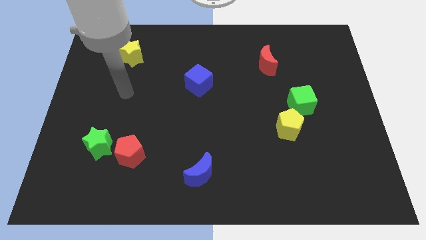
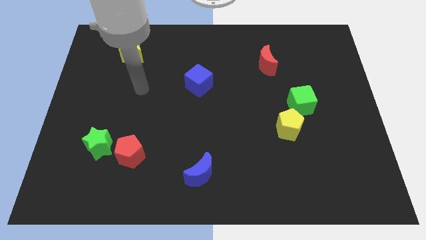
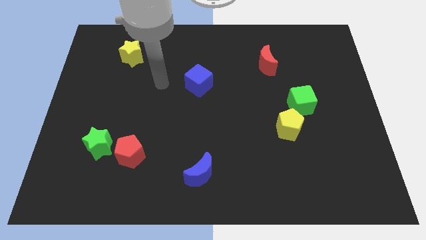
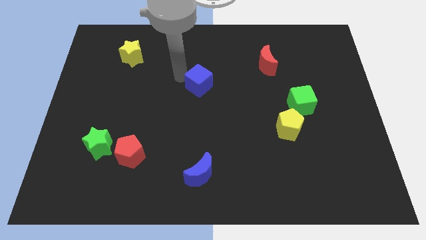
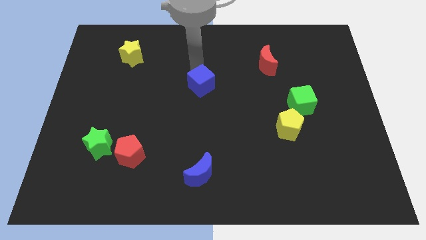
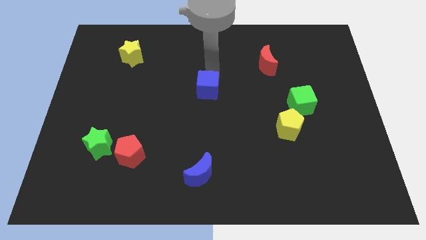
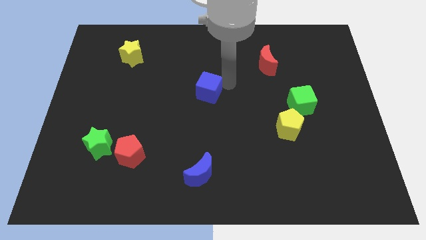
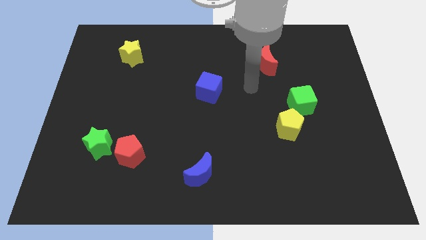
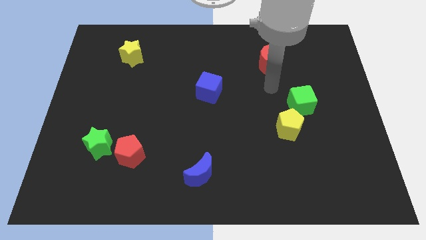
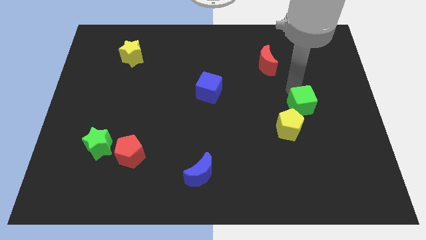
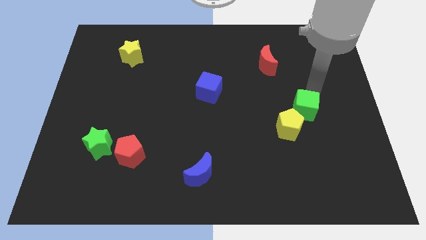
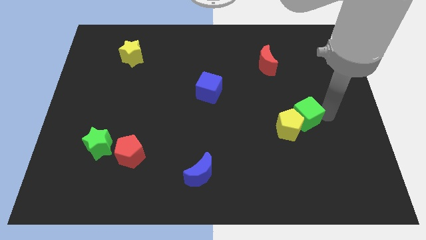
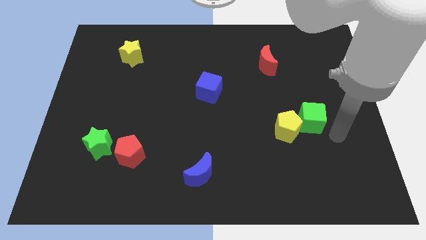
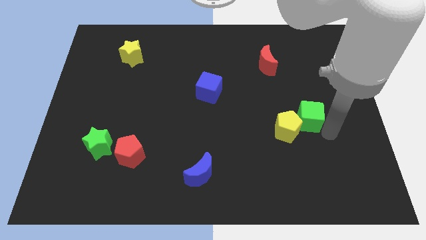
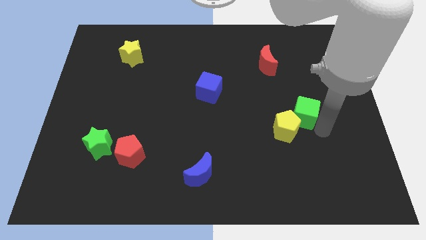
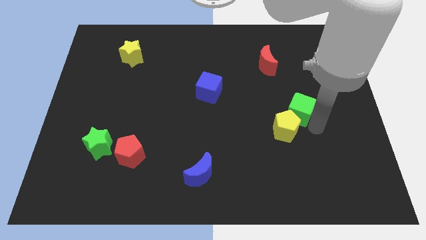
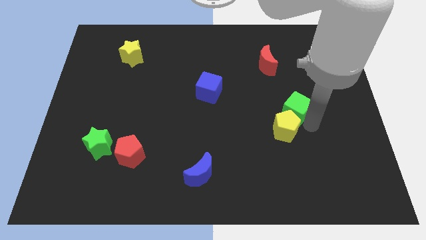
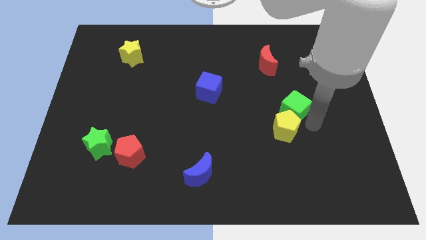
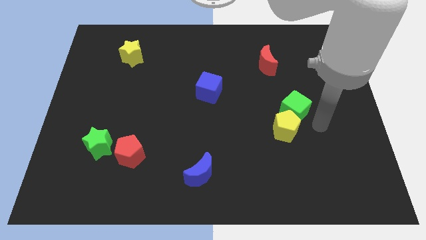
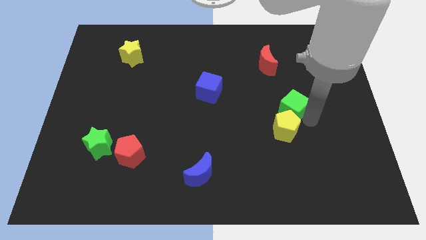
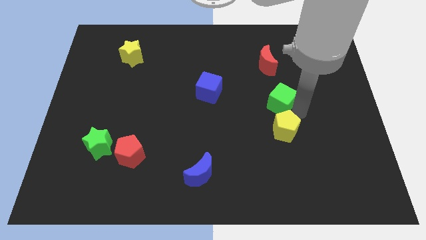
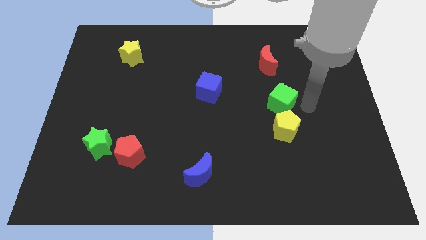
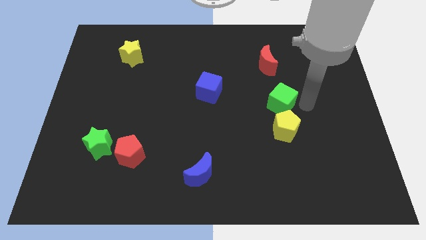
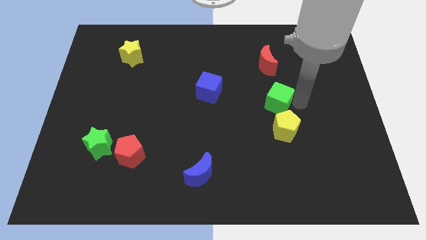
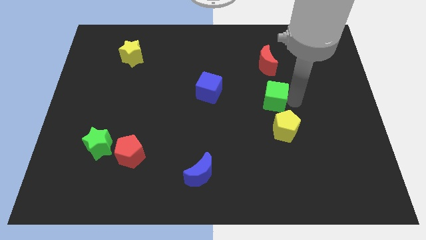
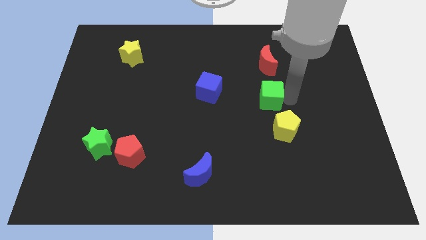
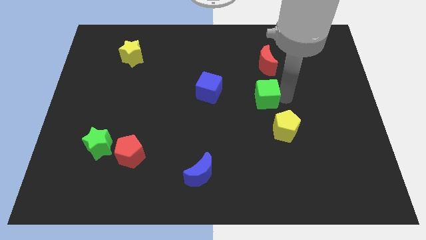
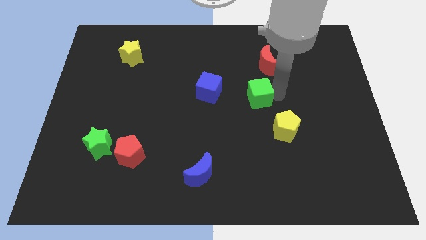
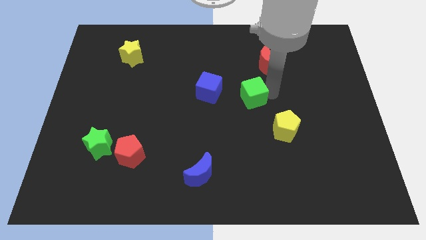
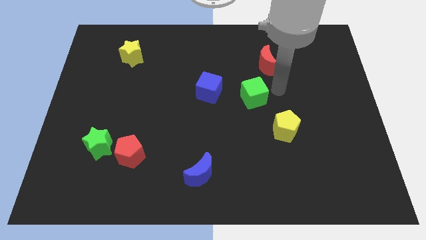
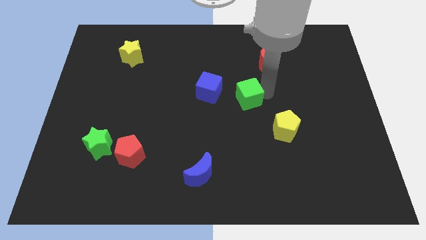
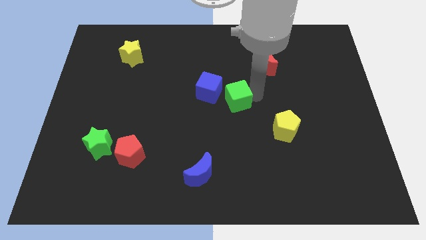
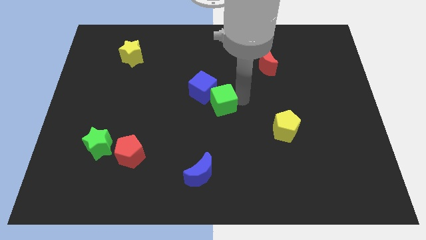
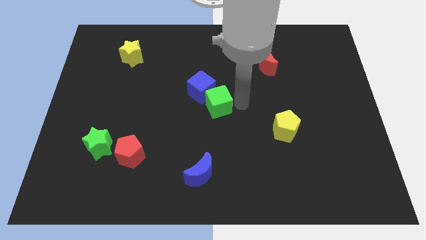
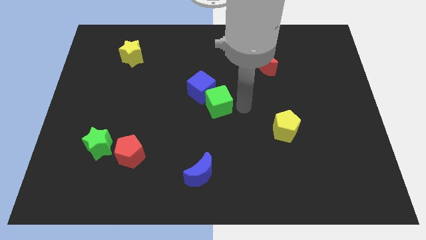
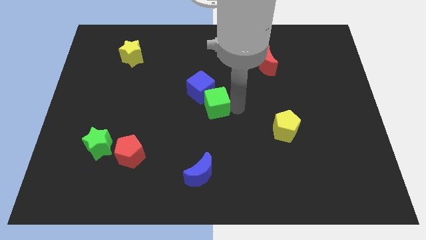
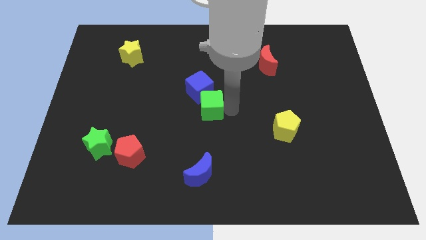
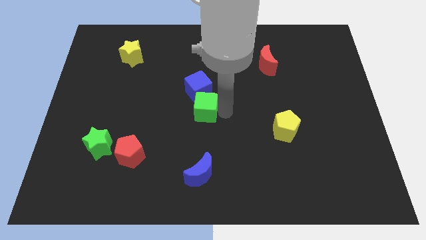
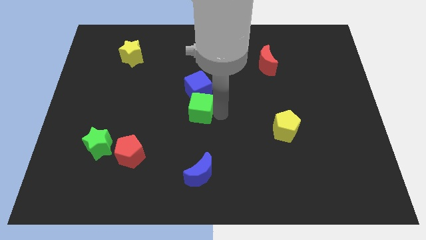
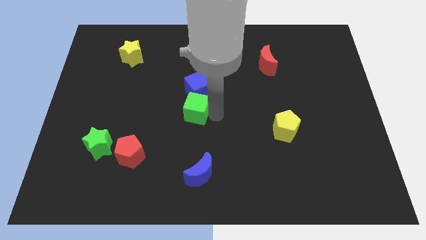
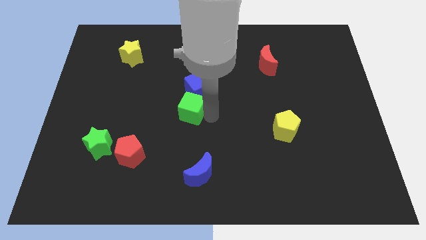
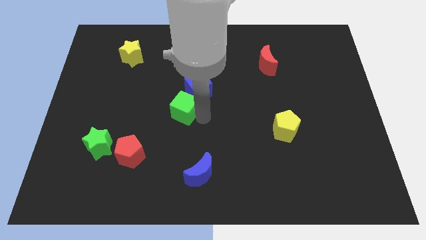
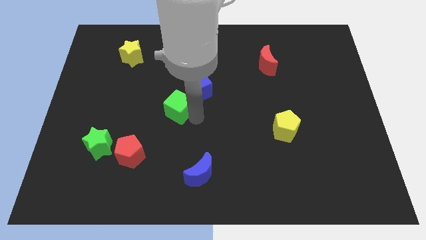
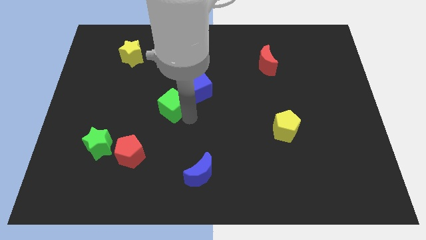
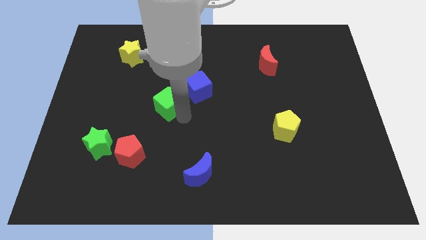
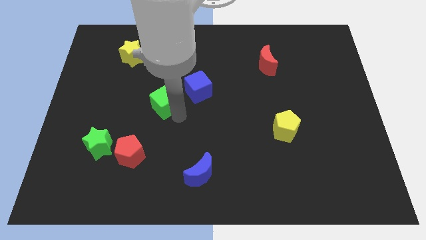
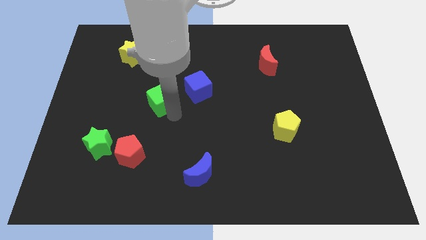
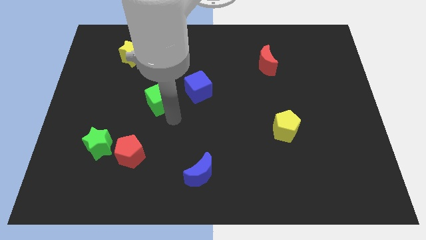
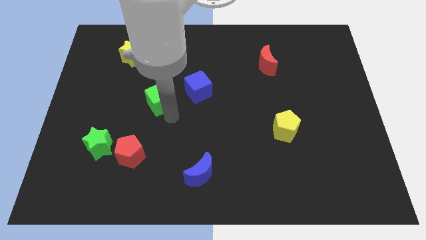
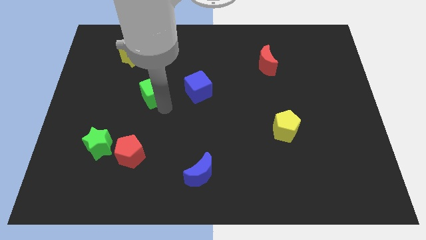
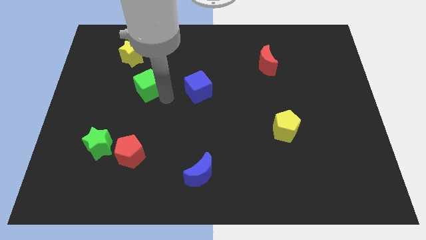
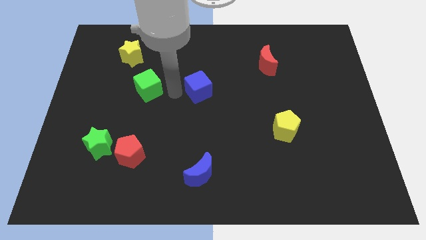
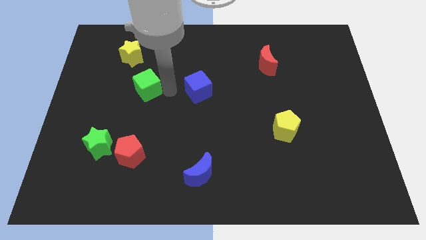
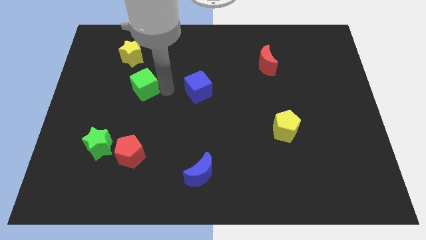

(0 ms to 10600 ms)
slide the green cube to the bottom of the yellow star

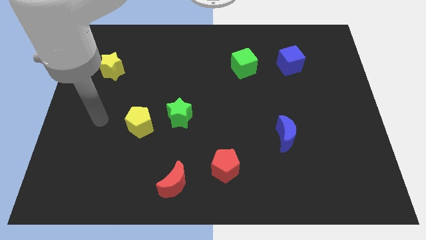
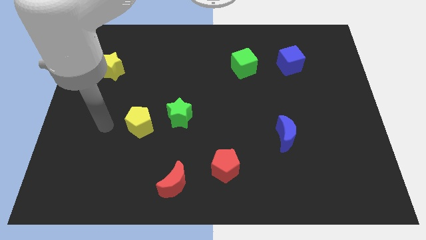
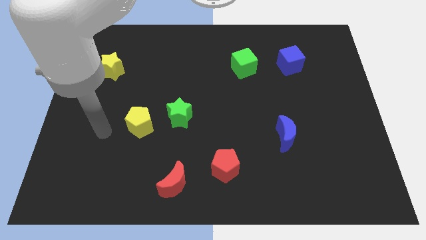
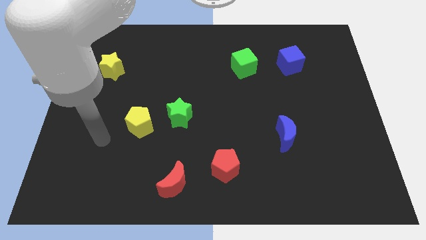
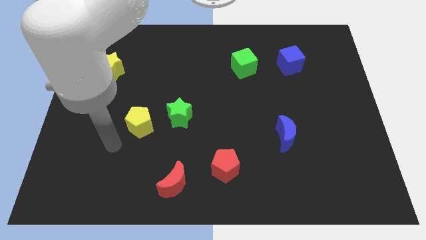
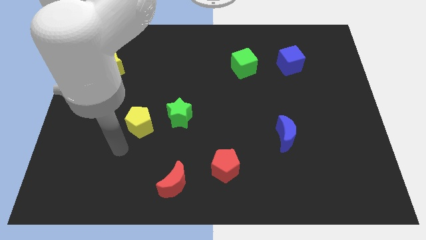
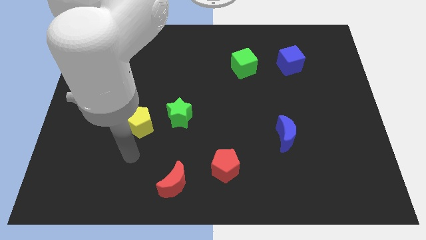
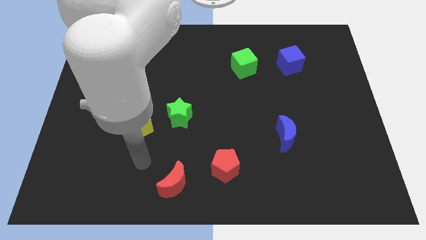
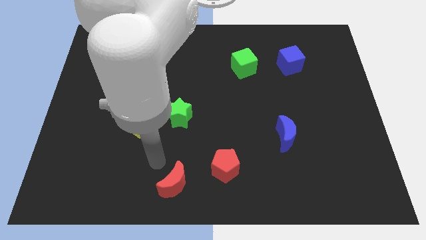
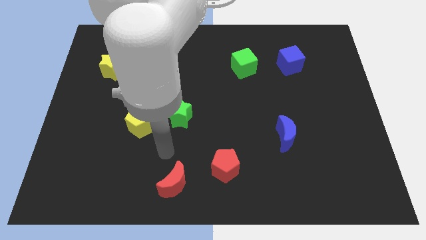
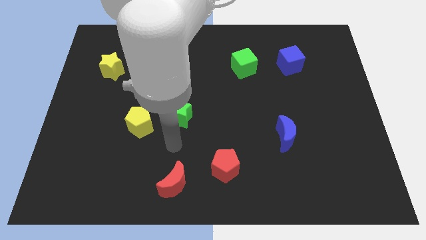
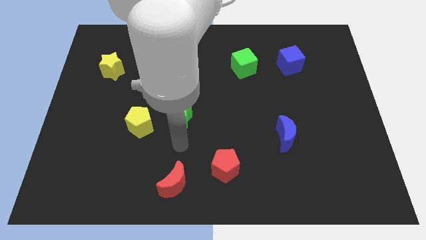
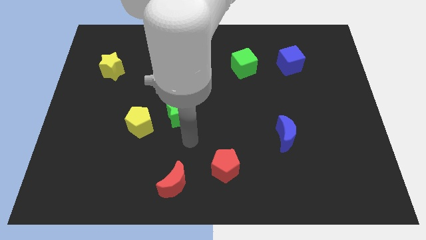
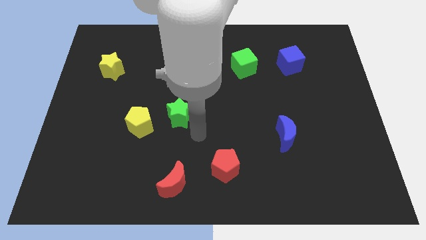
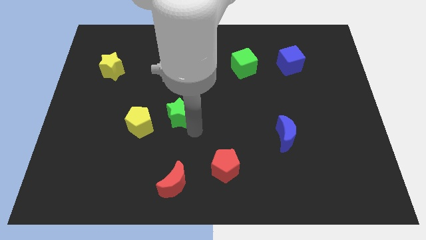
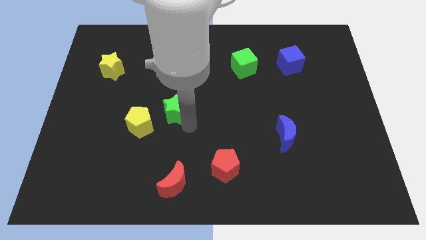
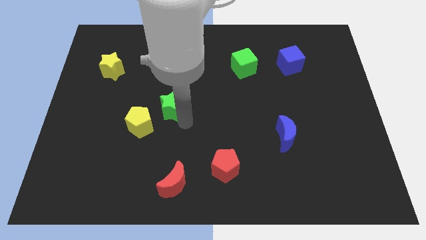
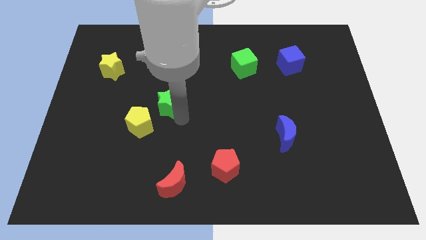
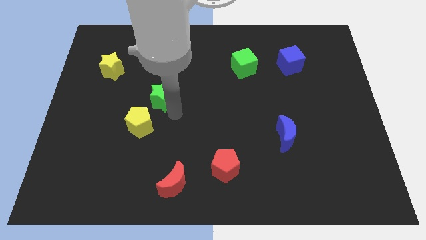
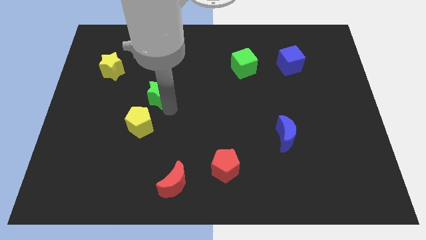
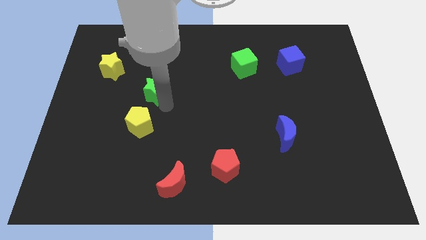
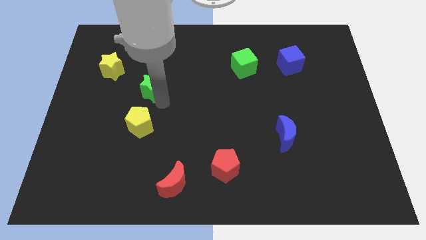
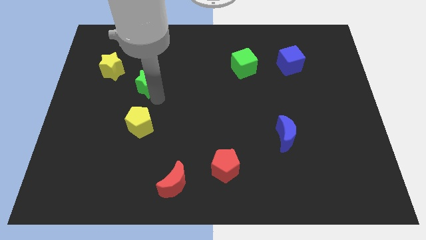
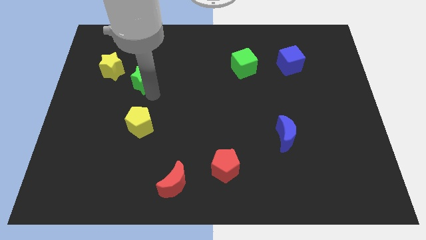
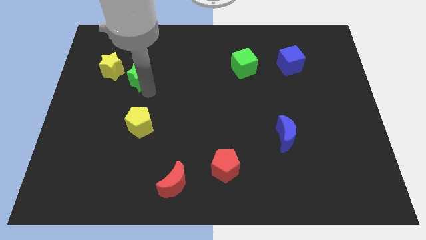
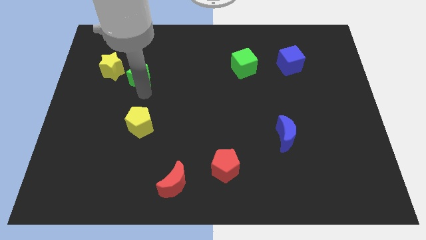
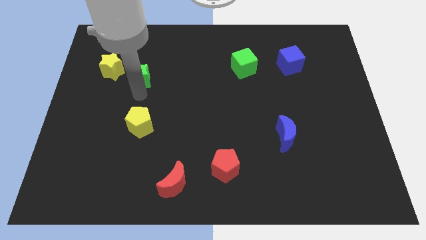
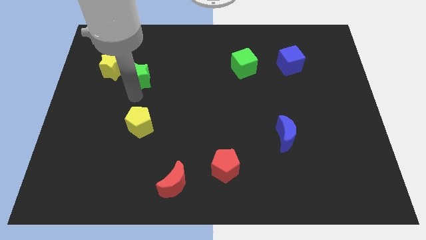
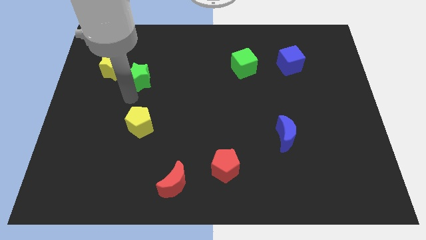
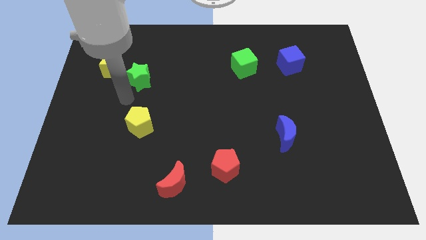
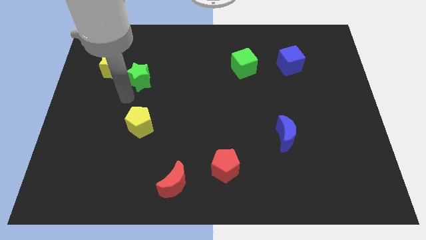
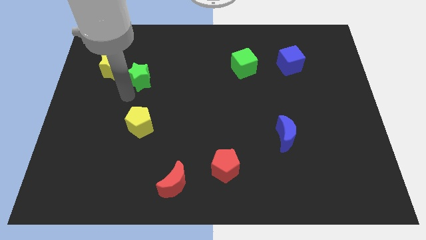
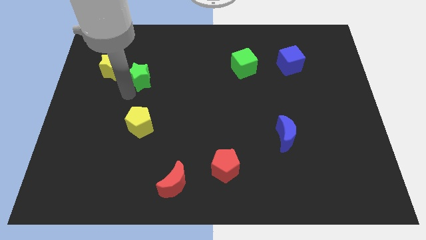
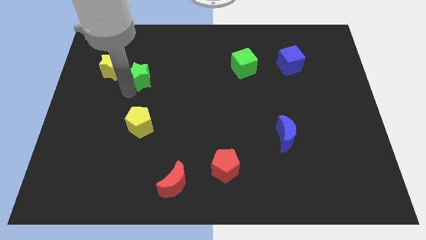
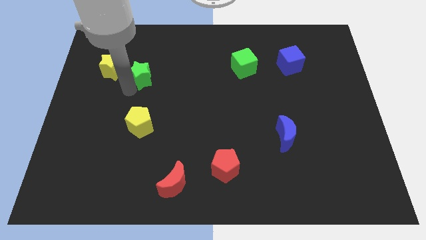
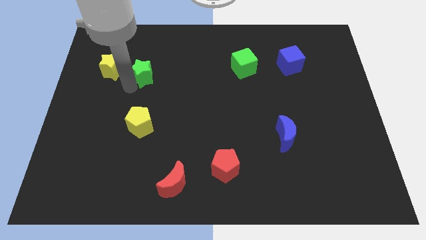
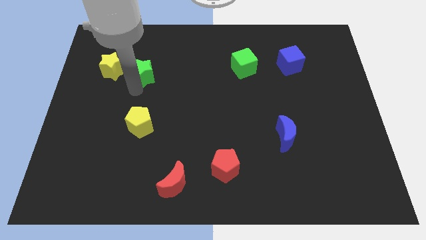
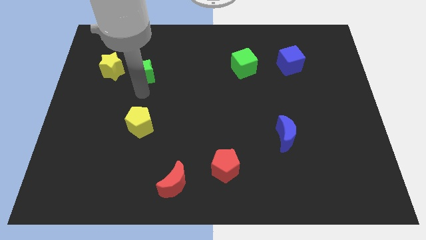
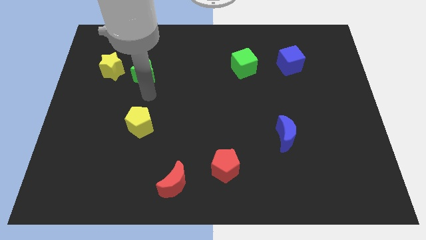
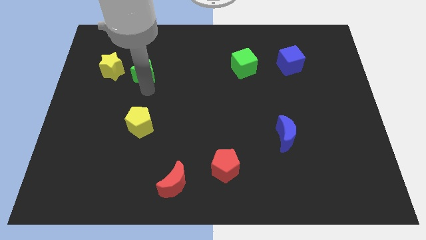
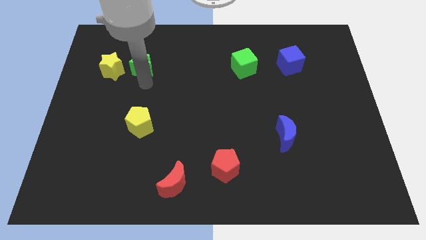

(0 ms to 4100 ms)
move the green star to the top right side of the yellow star
